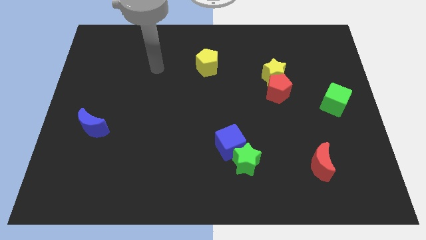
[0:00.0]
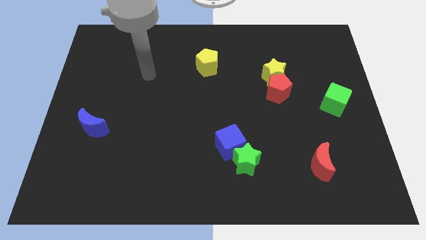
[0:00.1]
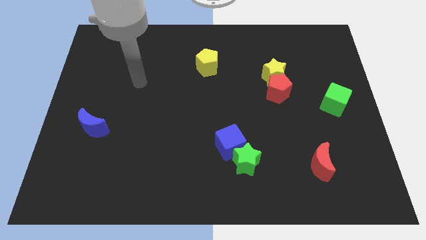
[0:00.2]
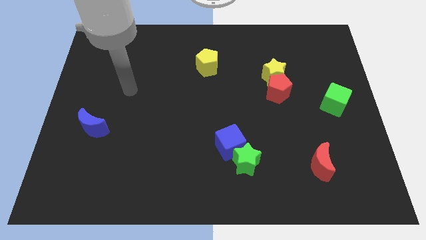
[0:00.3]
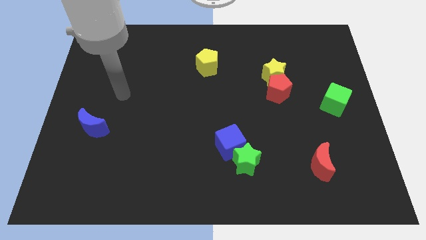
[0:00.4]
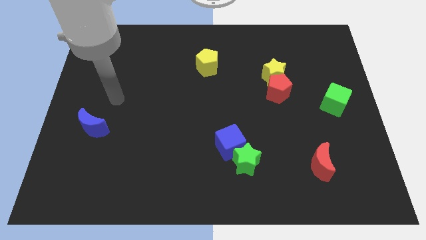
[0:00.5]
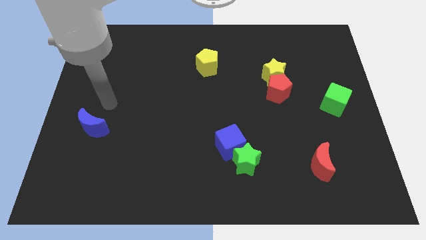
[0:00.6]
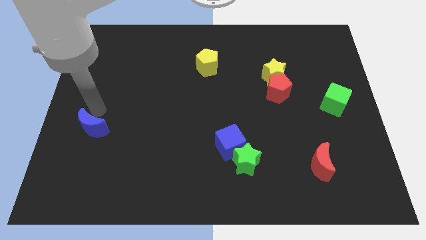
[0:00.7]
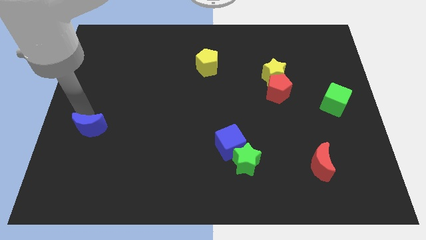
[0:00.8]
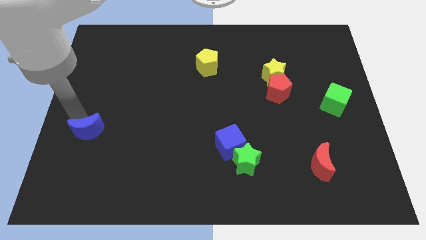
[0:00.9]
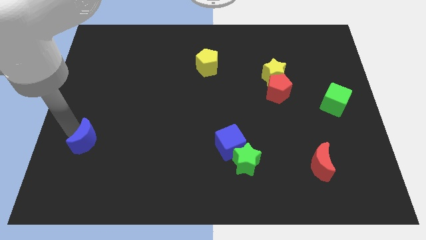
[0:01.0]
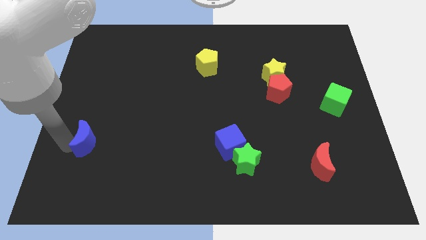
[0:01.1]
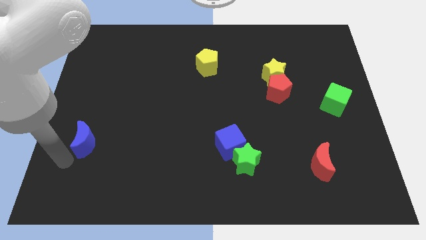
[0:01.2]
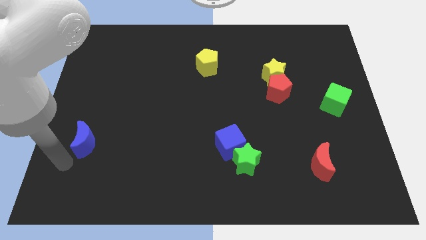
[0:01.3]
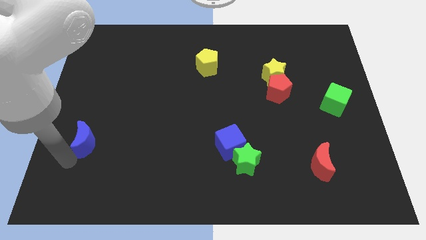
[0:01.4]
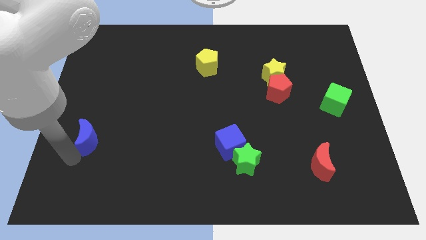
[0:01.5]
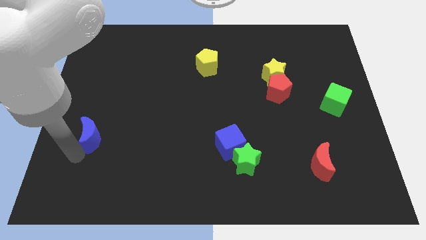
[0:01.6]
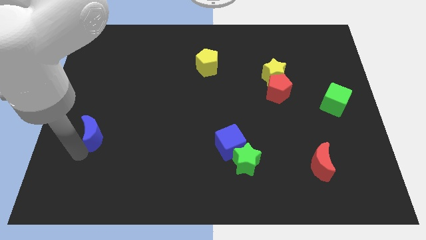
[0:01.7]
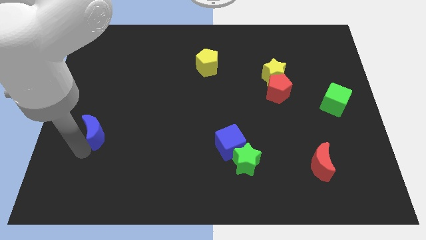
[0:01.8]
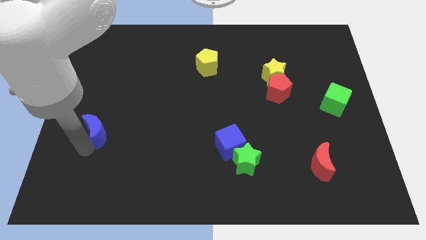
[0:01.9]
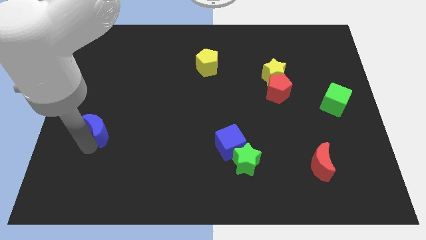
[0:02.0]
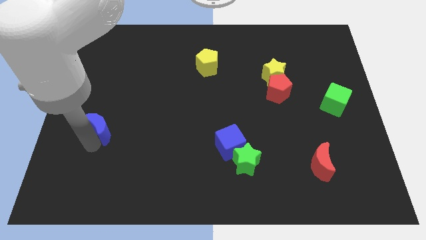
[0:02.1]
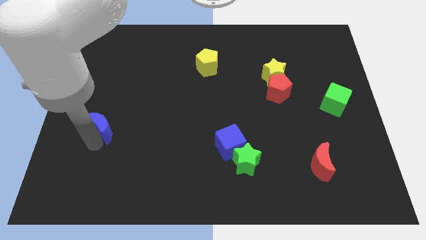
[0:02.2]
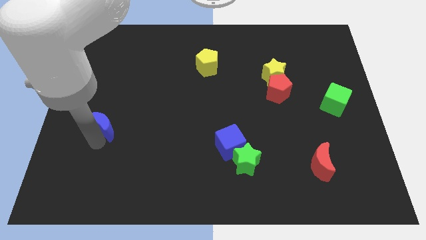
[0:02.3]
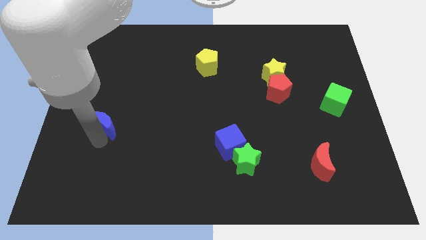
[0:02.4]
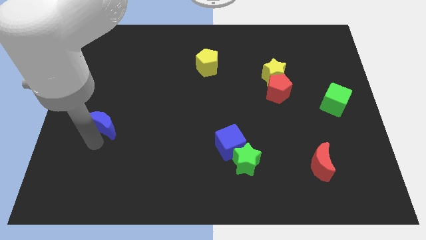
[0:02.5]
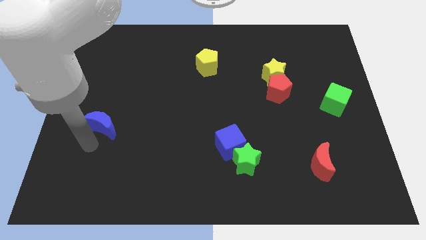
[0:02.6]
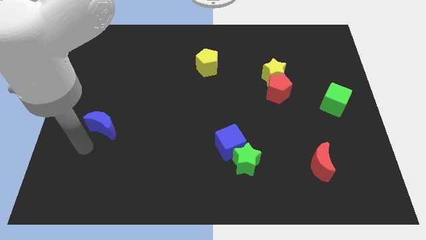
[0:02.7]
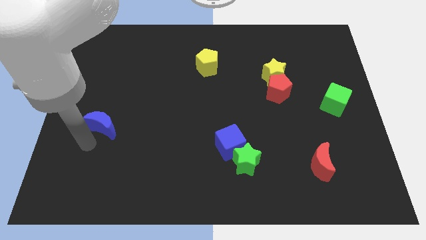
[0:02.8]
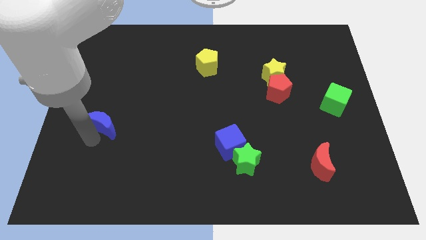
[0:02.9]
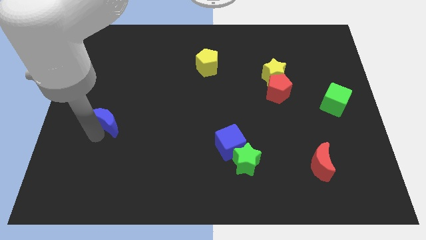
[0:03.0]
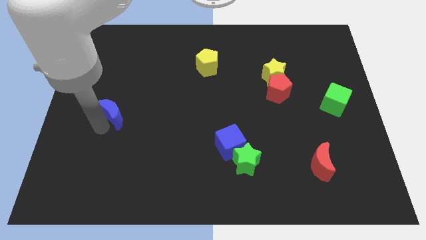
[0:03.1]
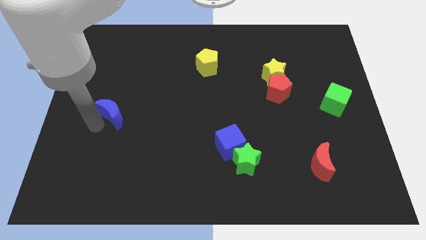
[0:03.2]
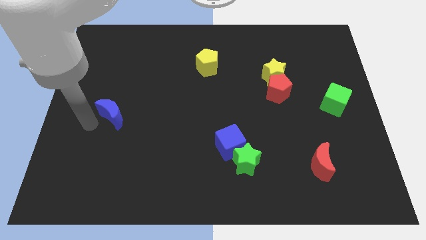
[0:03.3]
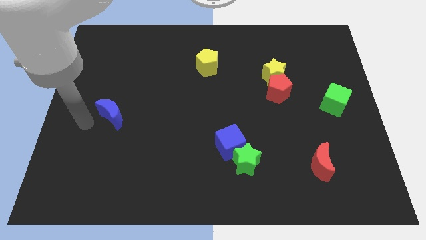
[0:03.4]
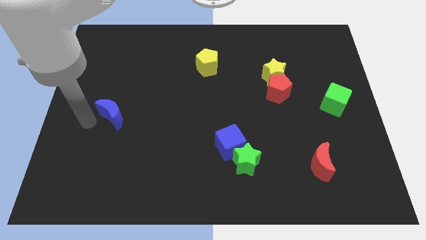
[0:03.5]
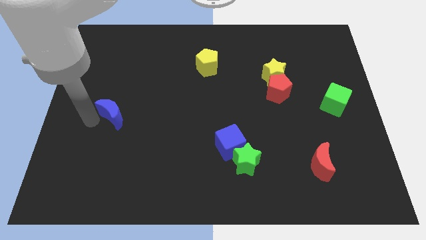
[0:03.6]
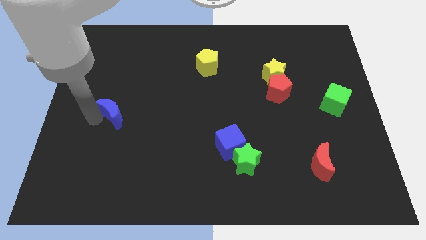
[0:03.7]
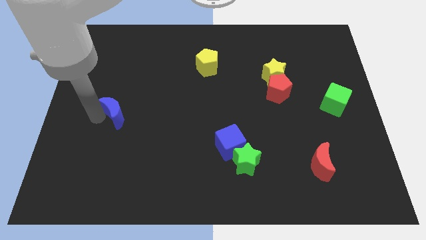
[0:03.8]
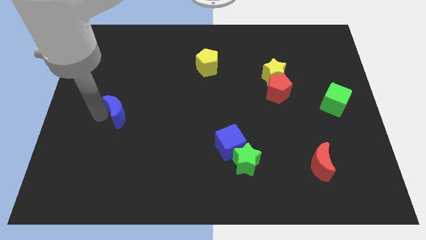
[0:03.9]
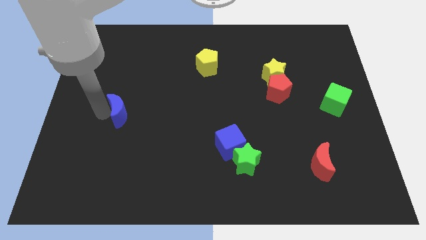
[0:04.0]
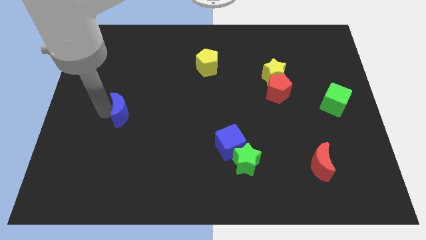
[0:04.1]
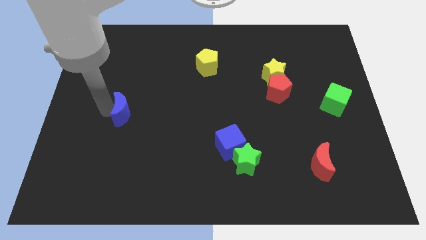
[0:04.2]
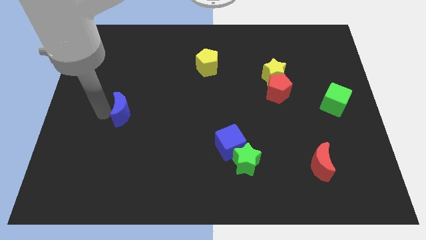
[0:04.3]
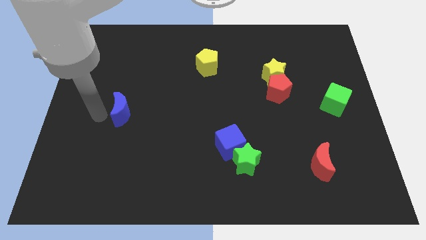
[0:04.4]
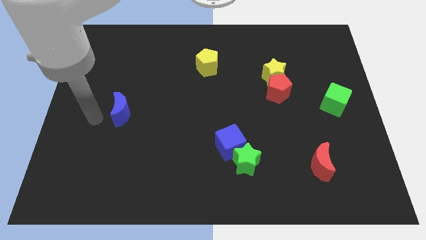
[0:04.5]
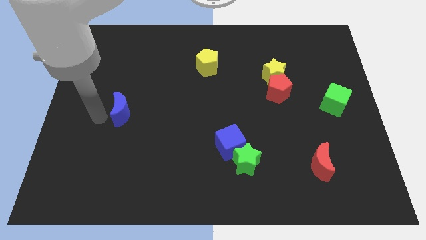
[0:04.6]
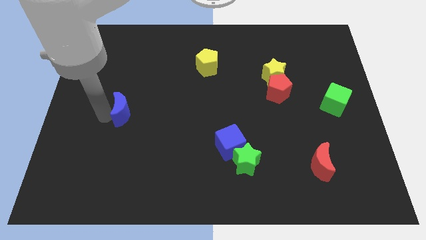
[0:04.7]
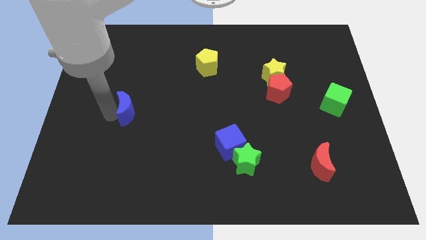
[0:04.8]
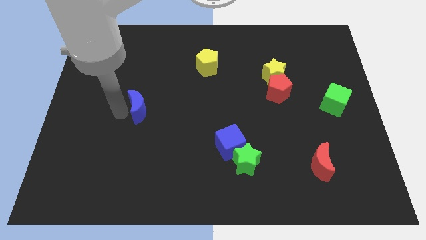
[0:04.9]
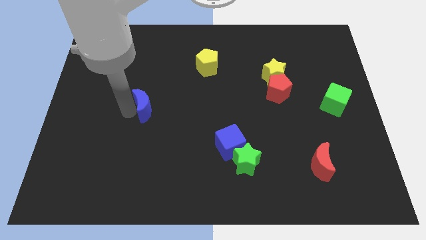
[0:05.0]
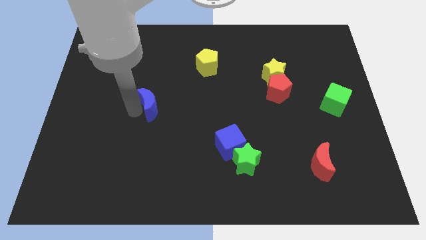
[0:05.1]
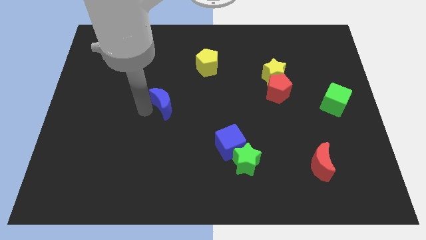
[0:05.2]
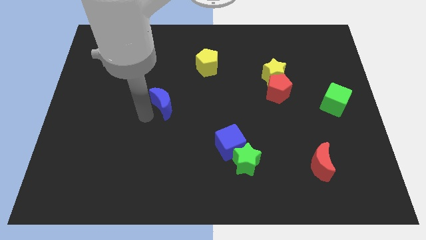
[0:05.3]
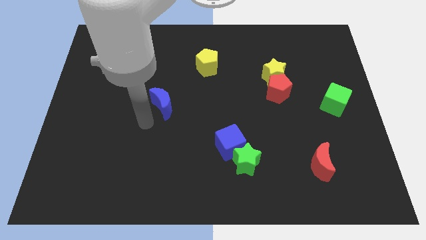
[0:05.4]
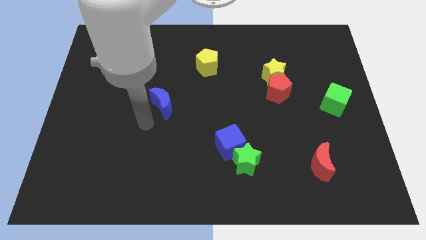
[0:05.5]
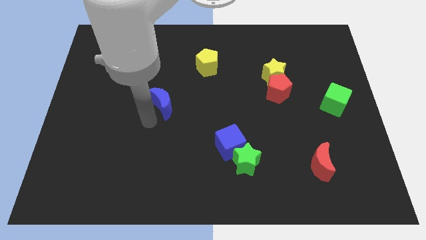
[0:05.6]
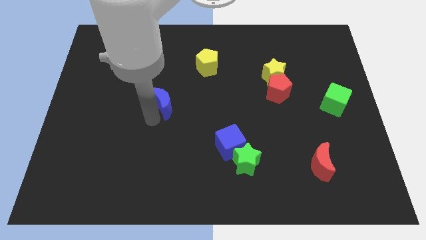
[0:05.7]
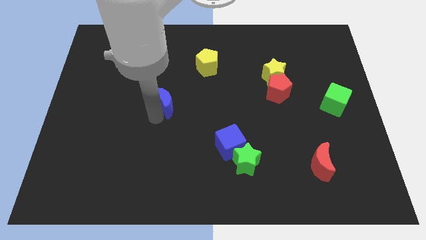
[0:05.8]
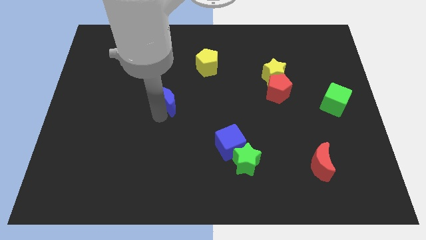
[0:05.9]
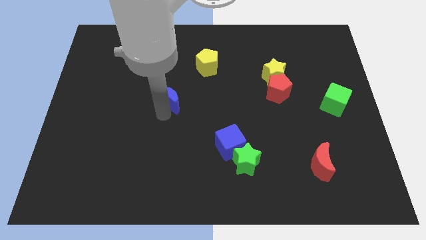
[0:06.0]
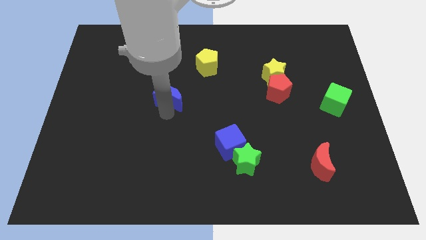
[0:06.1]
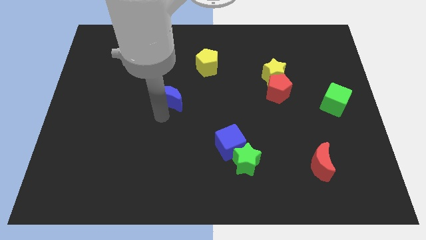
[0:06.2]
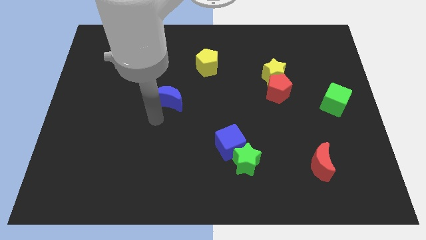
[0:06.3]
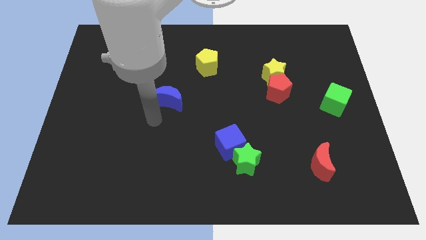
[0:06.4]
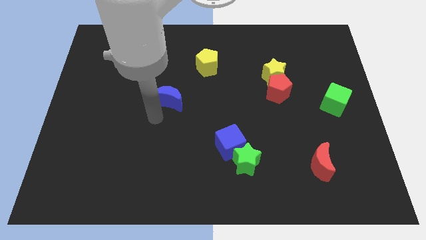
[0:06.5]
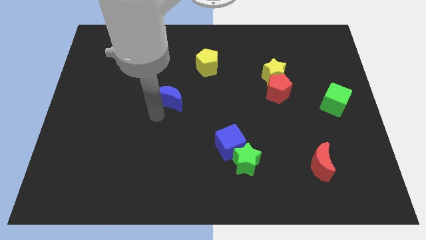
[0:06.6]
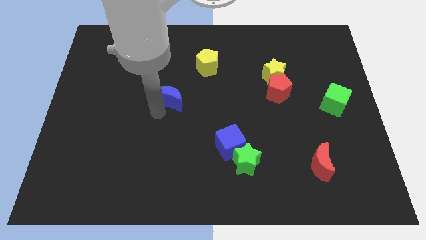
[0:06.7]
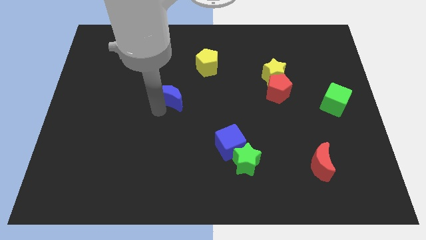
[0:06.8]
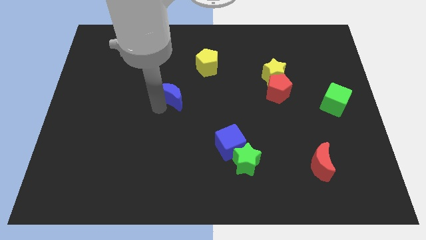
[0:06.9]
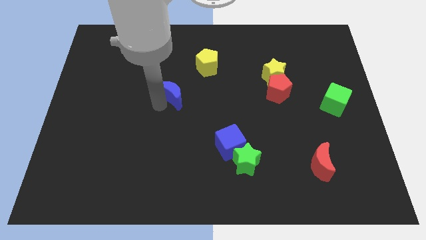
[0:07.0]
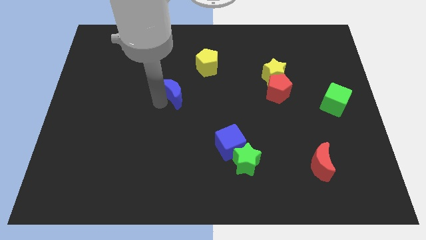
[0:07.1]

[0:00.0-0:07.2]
put the blue moon to the bottom left of the yellow pentagon
